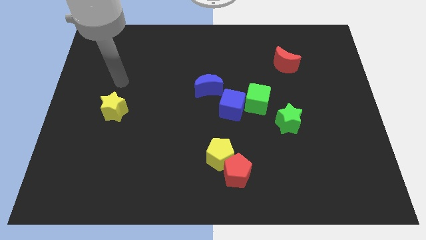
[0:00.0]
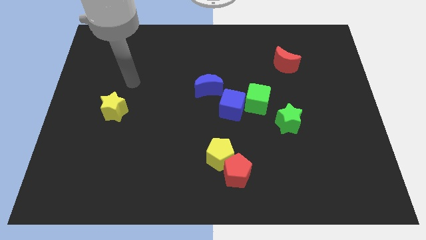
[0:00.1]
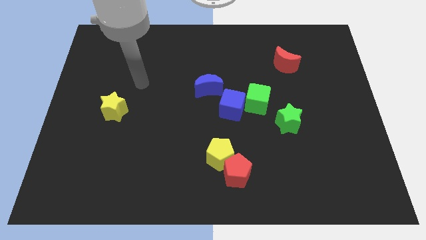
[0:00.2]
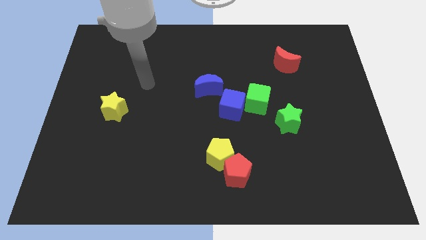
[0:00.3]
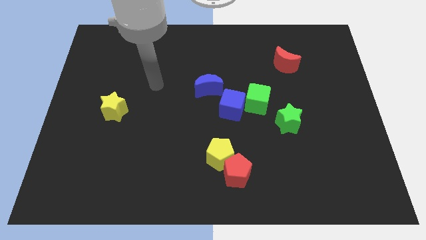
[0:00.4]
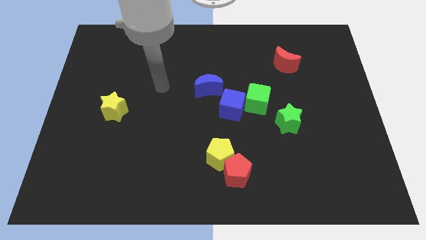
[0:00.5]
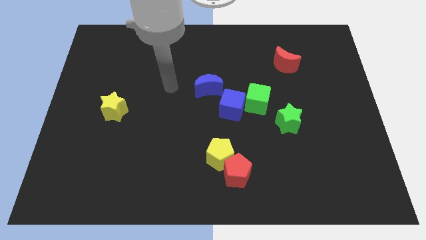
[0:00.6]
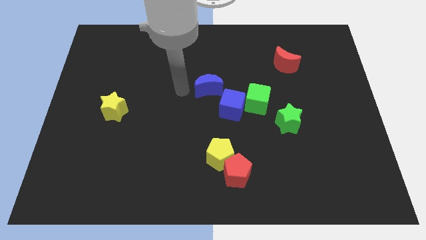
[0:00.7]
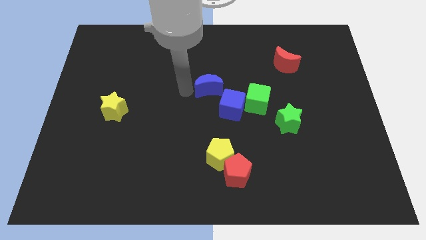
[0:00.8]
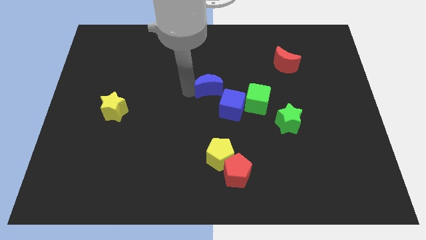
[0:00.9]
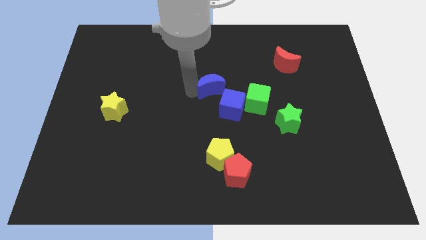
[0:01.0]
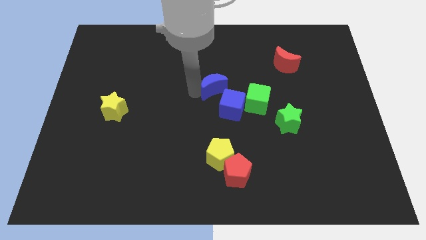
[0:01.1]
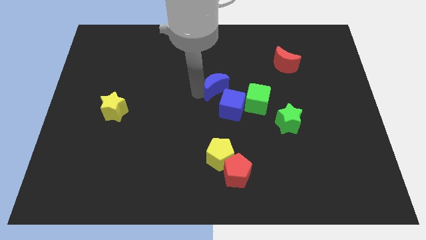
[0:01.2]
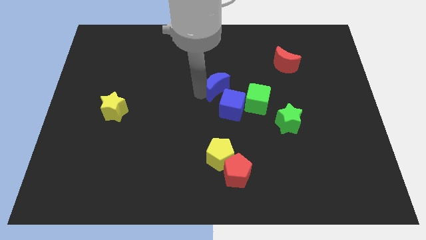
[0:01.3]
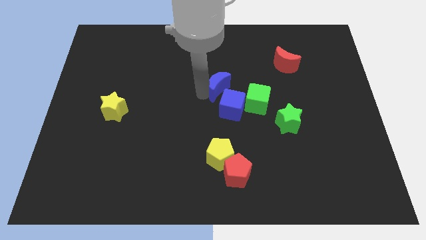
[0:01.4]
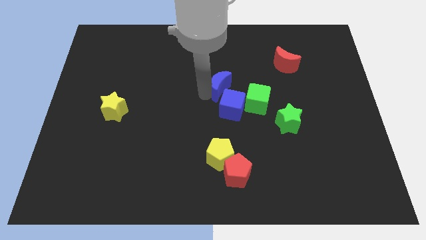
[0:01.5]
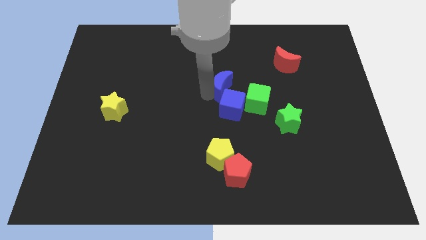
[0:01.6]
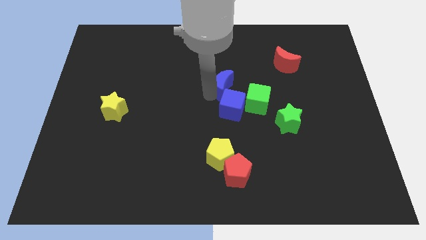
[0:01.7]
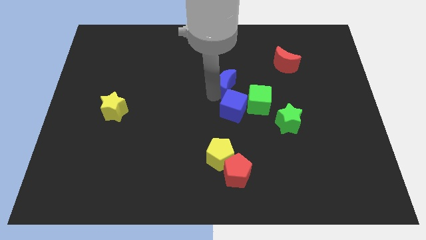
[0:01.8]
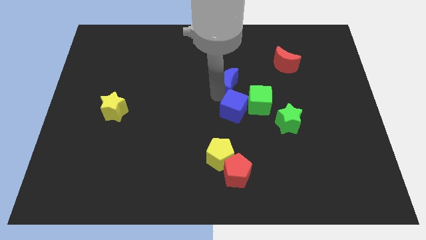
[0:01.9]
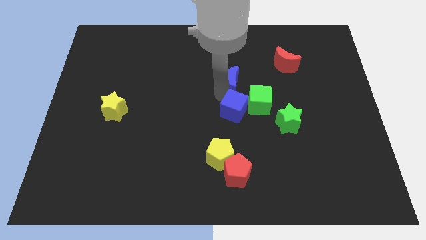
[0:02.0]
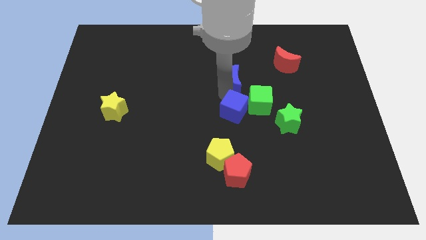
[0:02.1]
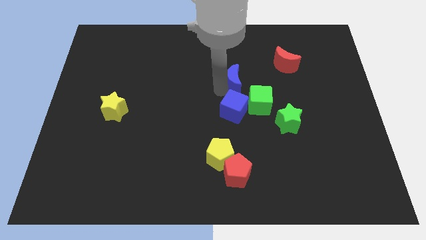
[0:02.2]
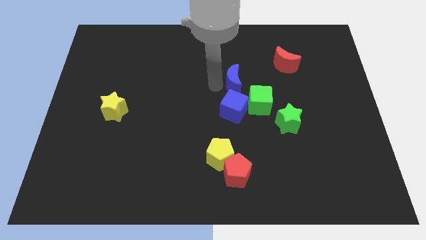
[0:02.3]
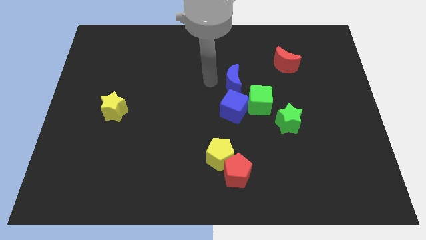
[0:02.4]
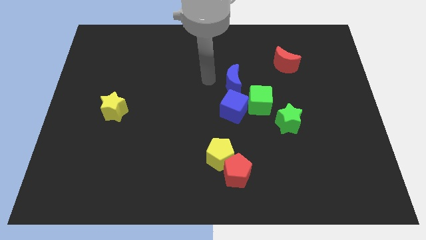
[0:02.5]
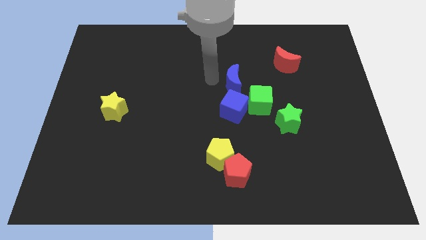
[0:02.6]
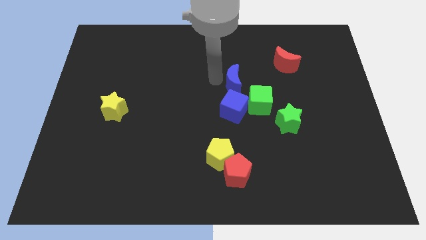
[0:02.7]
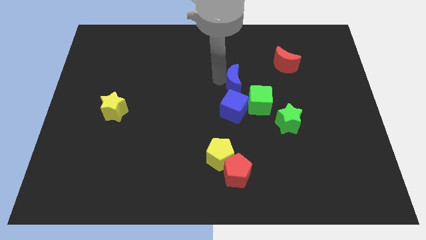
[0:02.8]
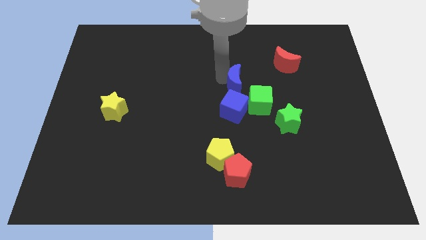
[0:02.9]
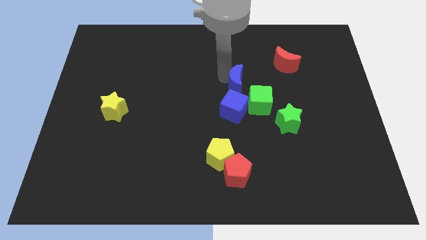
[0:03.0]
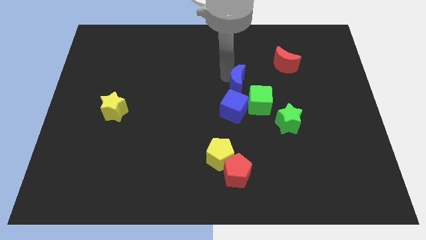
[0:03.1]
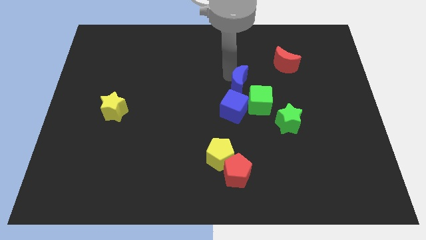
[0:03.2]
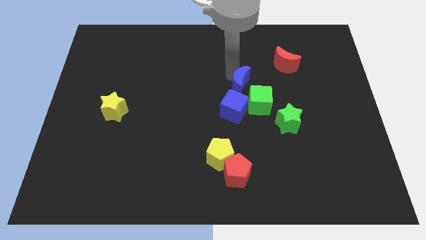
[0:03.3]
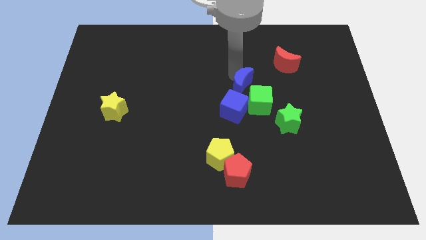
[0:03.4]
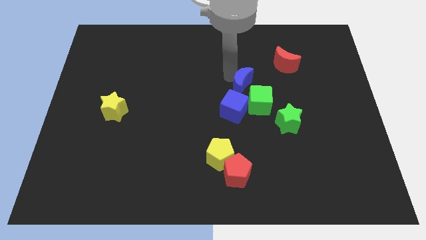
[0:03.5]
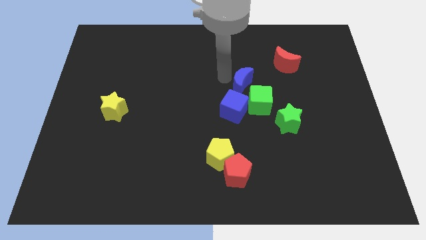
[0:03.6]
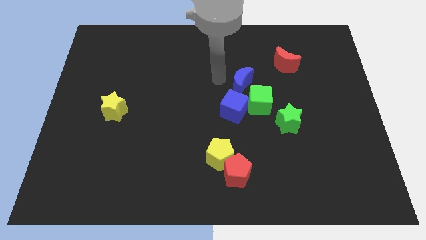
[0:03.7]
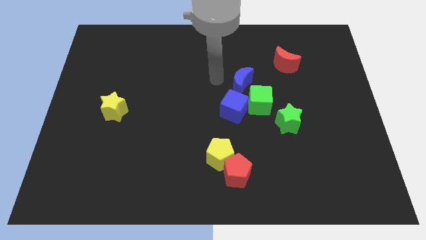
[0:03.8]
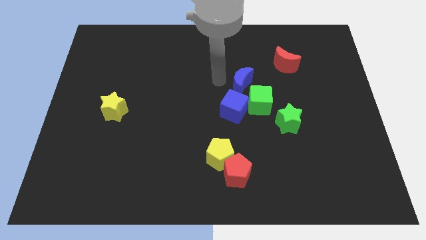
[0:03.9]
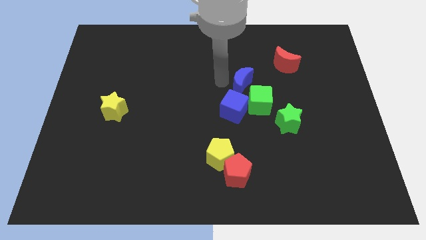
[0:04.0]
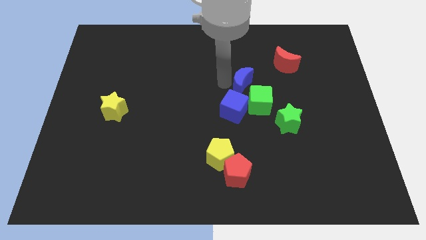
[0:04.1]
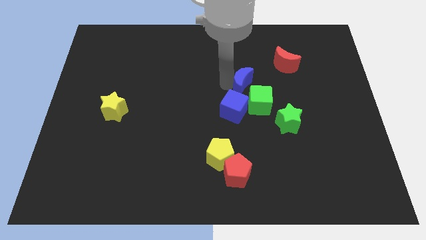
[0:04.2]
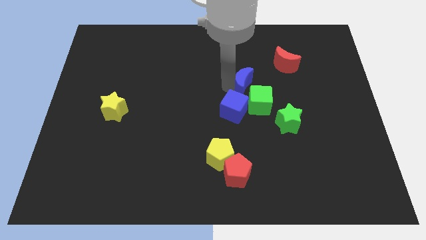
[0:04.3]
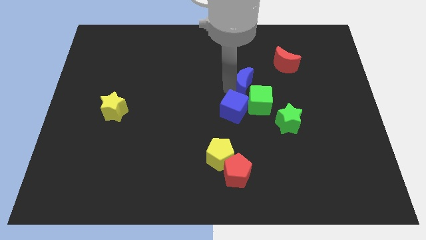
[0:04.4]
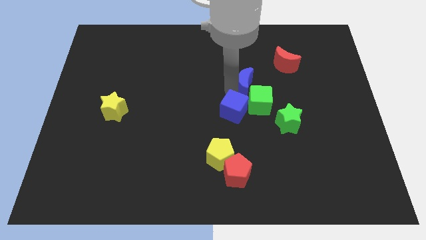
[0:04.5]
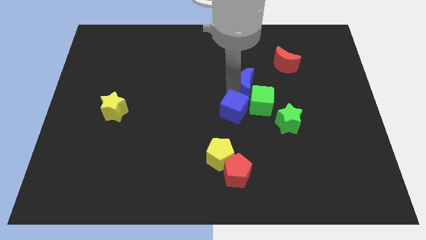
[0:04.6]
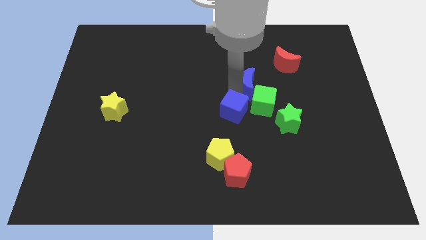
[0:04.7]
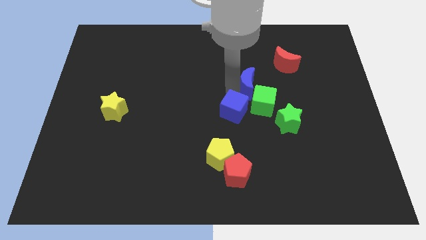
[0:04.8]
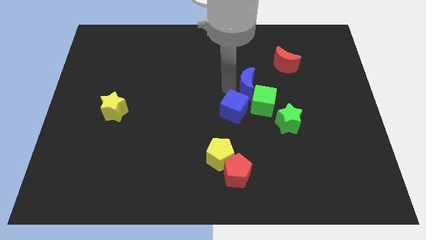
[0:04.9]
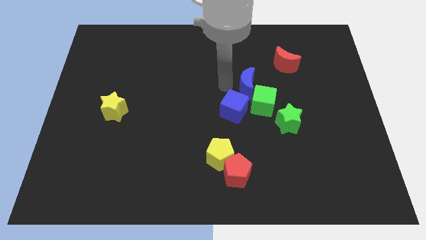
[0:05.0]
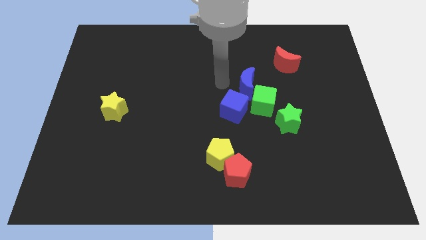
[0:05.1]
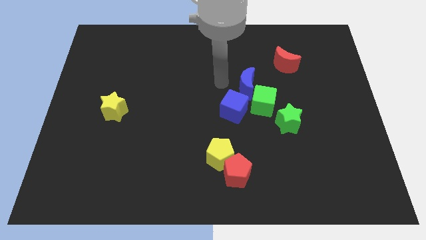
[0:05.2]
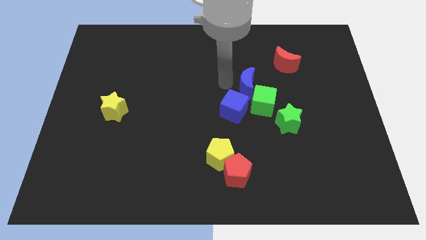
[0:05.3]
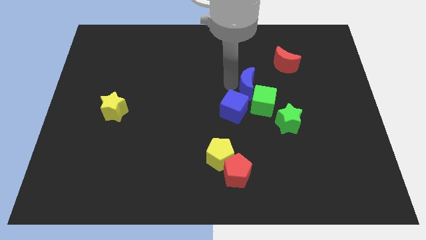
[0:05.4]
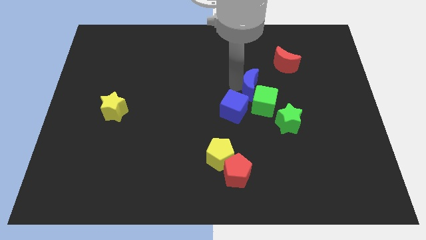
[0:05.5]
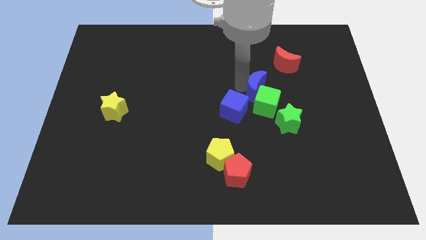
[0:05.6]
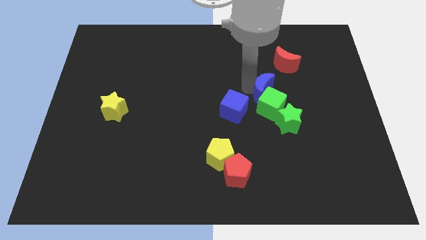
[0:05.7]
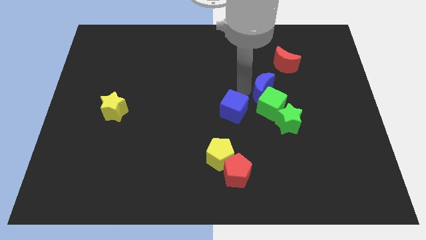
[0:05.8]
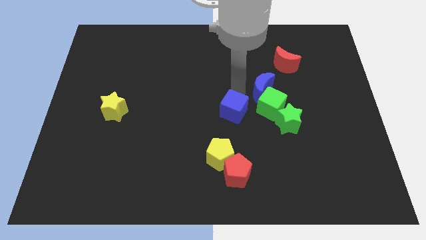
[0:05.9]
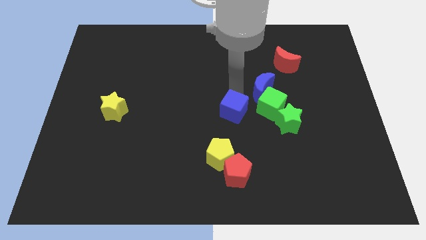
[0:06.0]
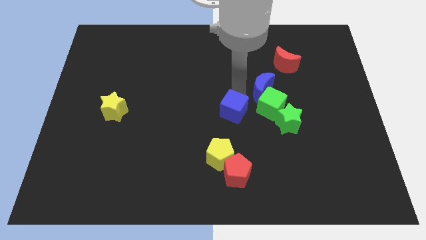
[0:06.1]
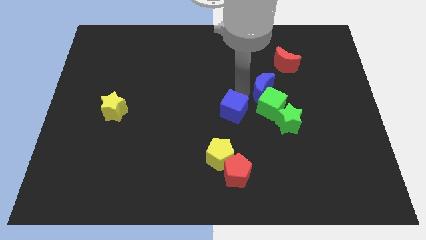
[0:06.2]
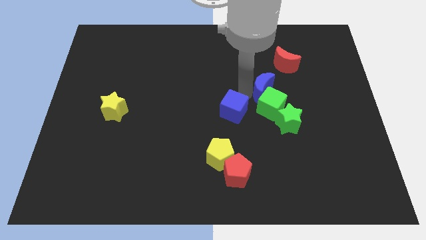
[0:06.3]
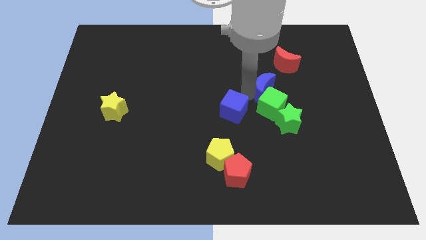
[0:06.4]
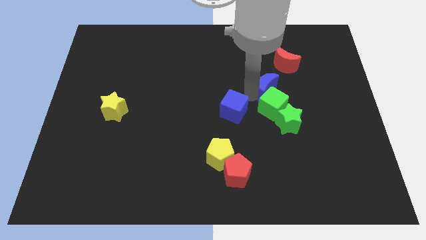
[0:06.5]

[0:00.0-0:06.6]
move the blue moon above the green star

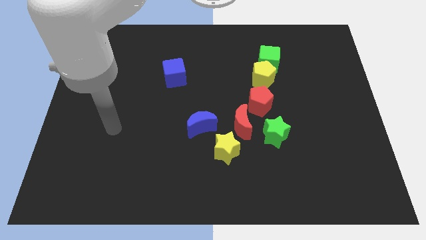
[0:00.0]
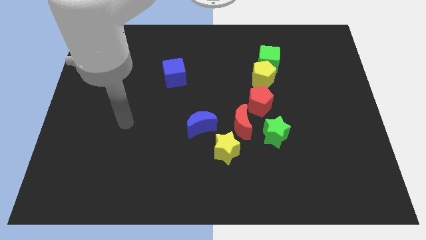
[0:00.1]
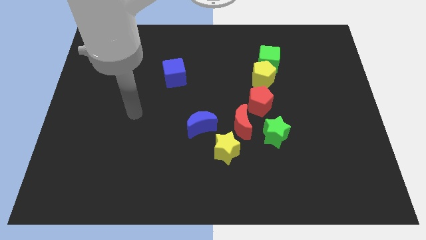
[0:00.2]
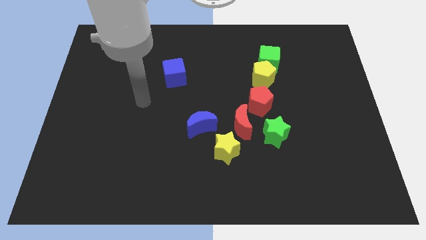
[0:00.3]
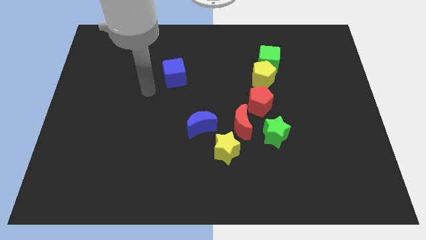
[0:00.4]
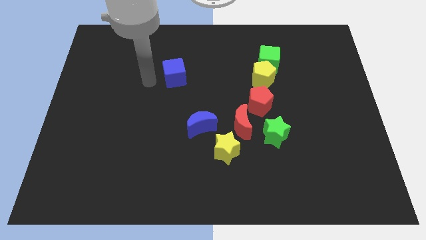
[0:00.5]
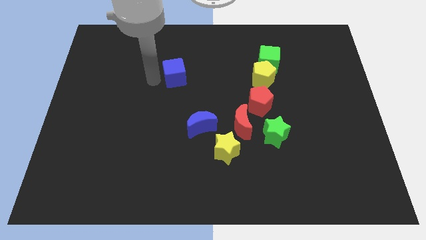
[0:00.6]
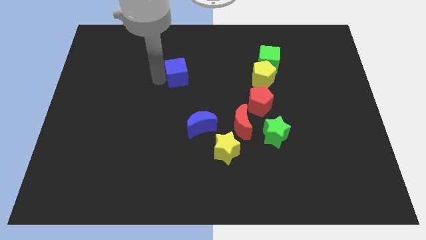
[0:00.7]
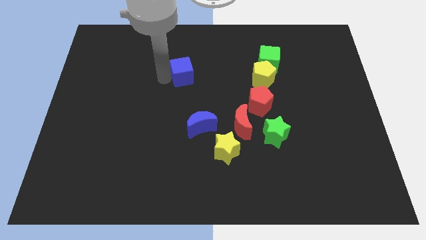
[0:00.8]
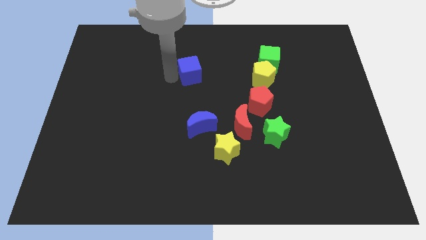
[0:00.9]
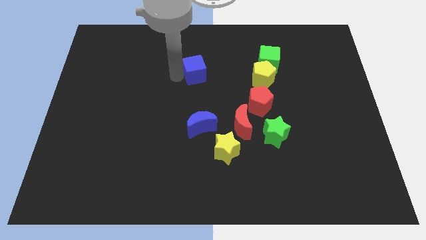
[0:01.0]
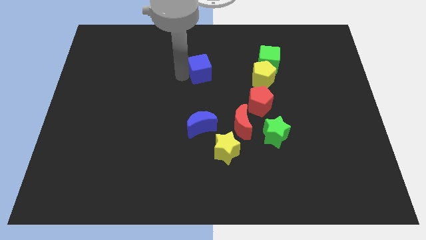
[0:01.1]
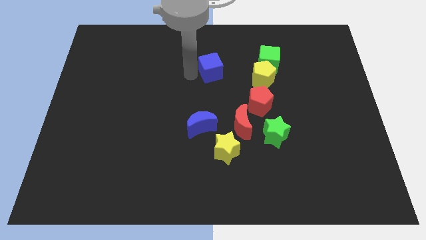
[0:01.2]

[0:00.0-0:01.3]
put the blue cube to the left of the green cube

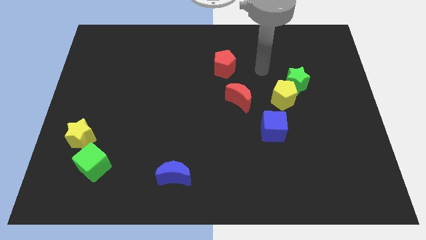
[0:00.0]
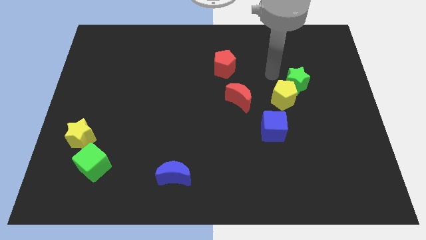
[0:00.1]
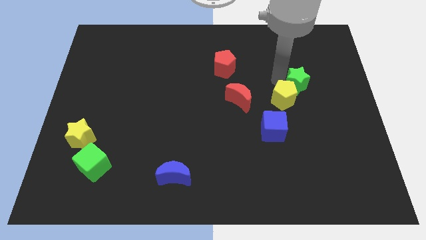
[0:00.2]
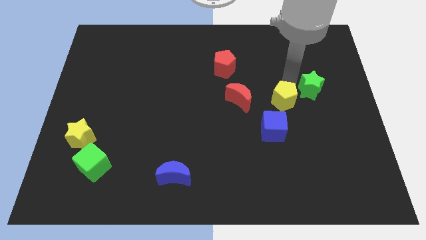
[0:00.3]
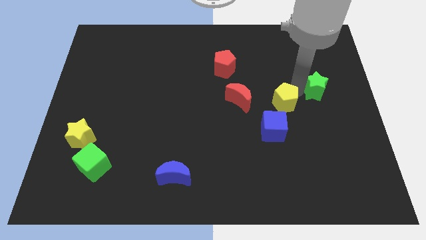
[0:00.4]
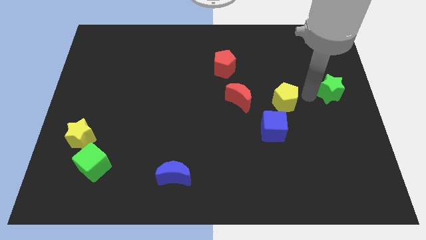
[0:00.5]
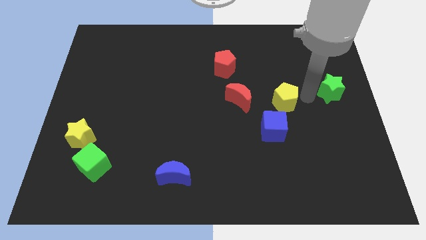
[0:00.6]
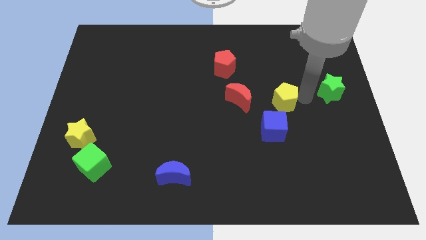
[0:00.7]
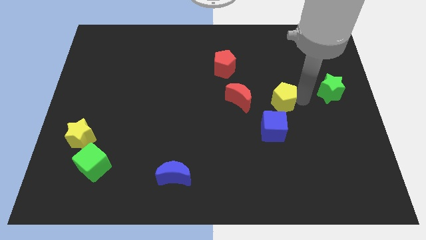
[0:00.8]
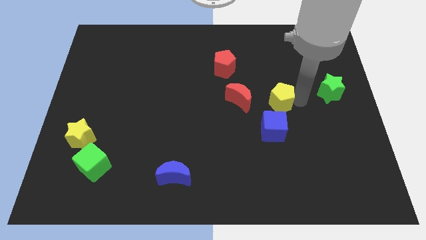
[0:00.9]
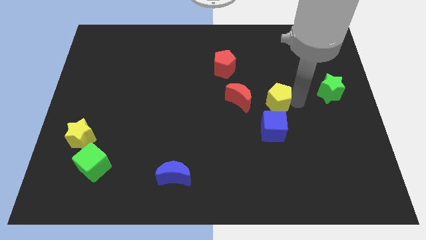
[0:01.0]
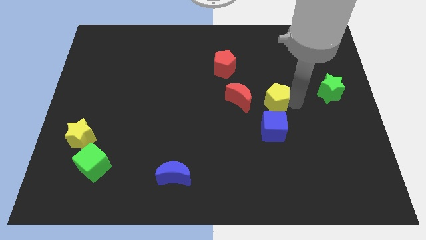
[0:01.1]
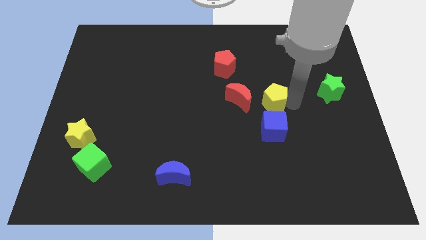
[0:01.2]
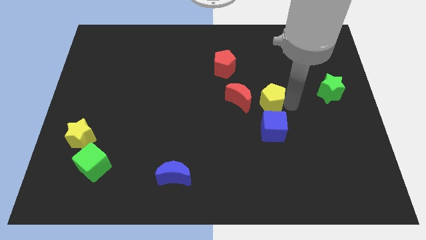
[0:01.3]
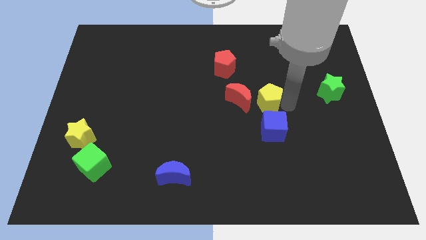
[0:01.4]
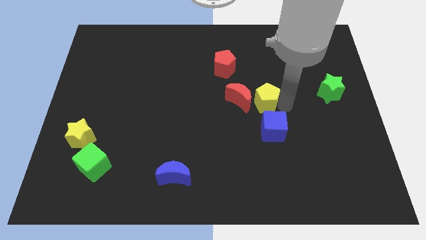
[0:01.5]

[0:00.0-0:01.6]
slide the yellow pentagon to the top left side of the blue cube
